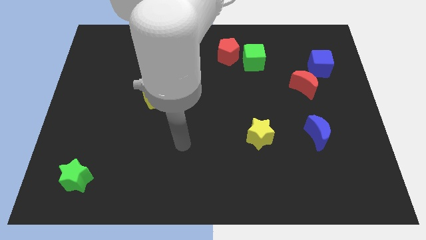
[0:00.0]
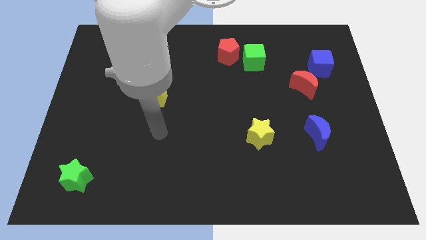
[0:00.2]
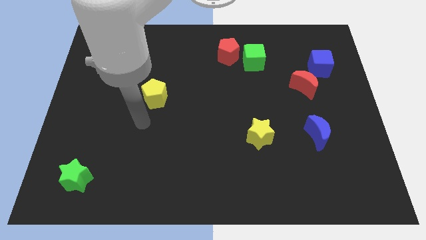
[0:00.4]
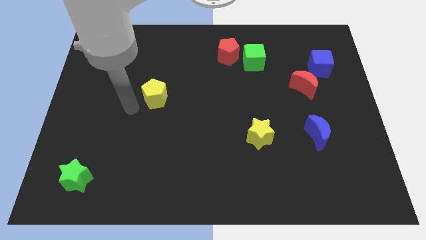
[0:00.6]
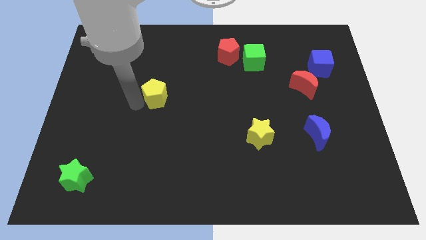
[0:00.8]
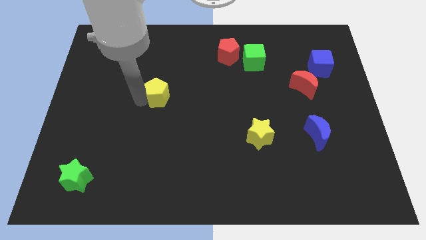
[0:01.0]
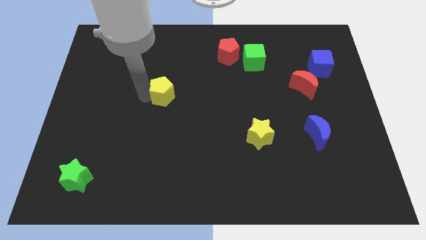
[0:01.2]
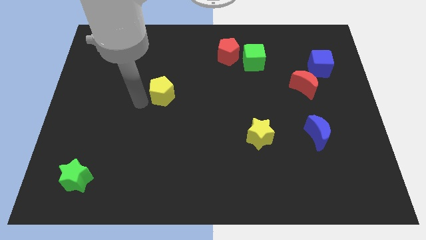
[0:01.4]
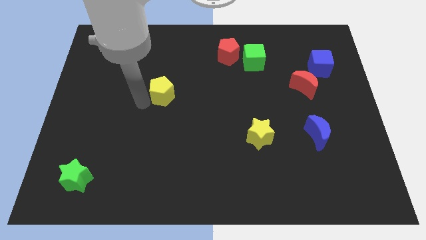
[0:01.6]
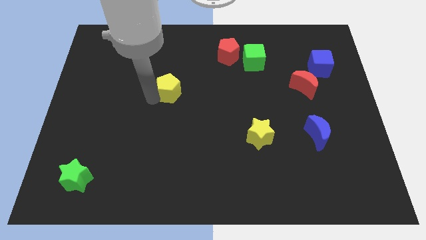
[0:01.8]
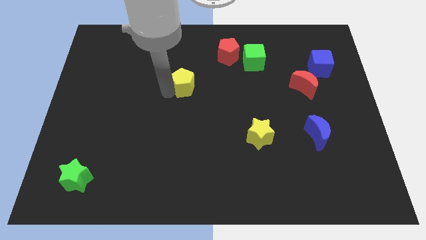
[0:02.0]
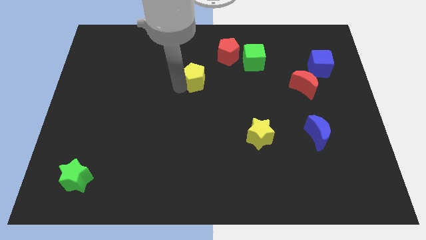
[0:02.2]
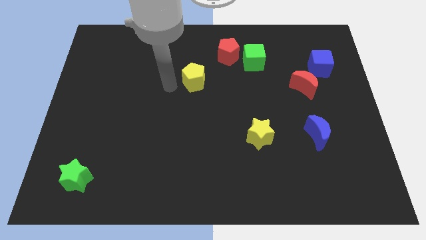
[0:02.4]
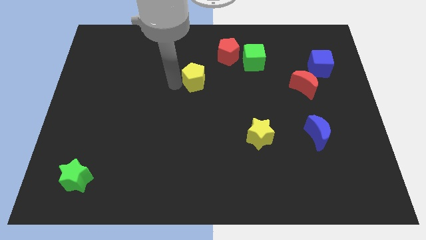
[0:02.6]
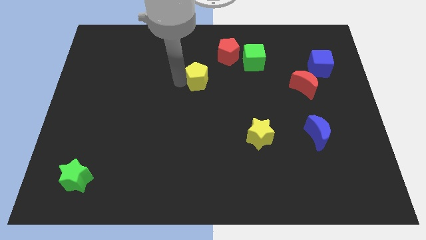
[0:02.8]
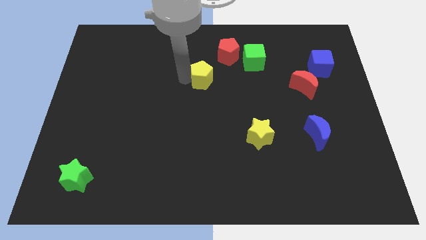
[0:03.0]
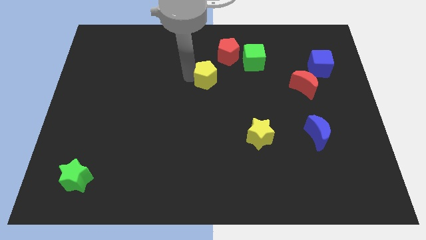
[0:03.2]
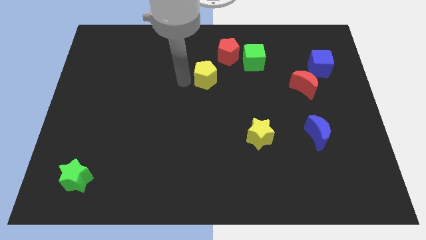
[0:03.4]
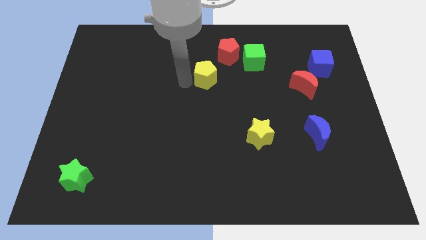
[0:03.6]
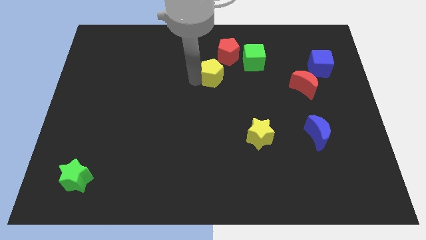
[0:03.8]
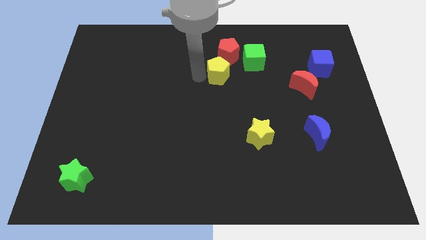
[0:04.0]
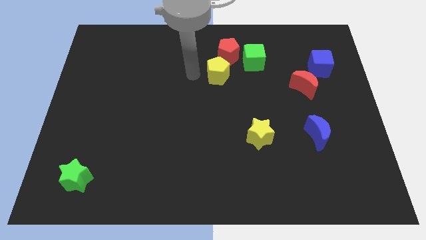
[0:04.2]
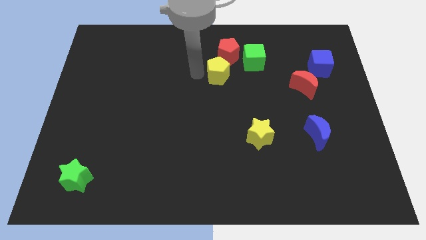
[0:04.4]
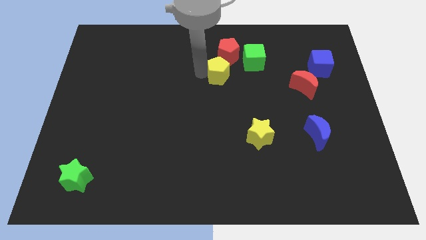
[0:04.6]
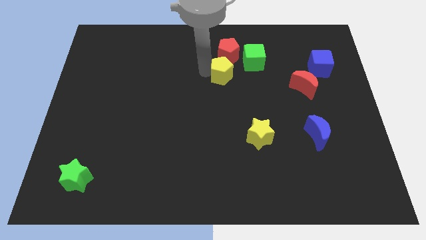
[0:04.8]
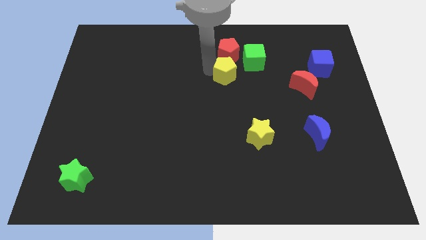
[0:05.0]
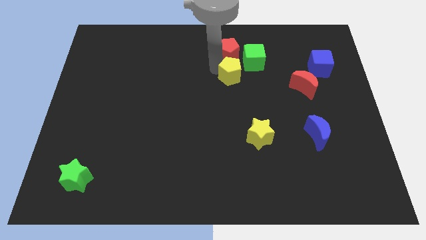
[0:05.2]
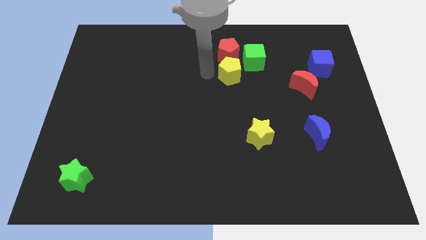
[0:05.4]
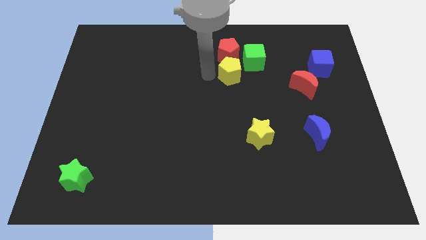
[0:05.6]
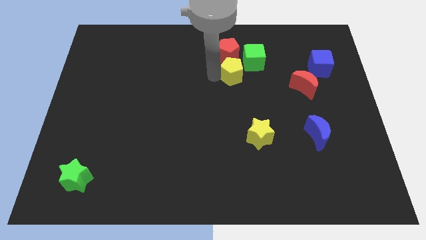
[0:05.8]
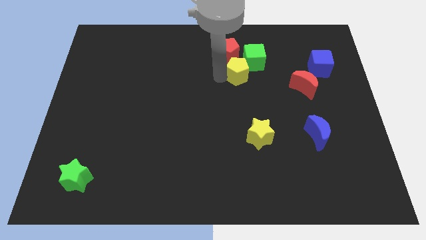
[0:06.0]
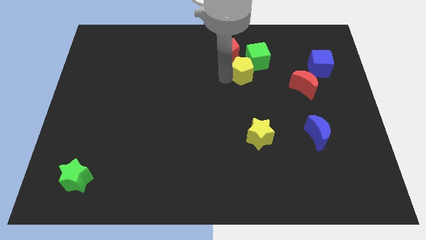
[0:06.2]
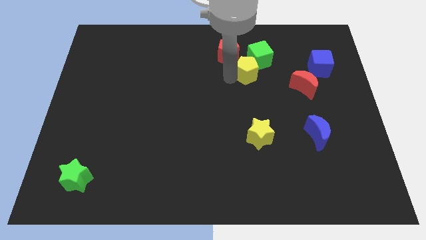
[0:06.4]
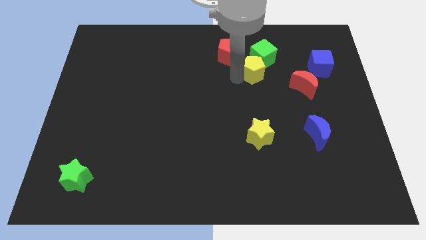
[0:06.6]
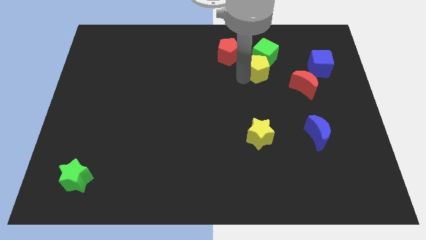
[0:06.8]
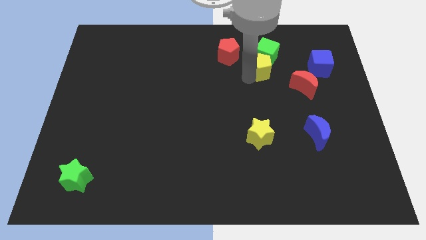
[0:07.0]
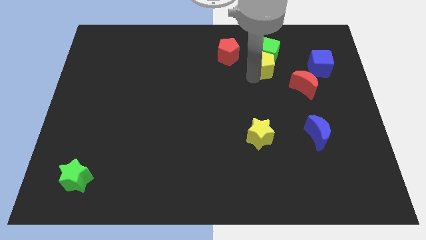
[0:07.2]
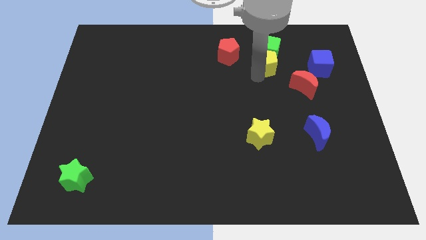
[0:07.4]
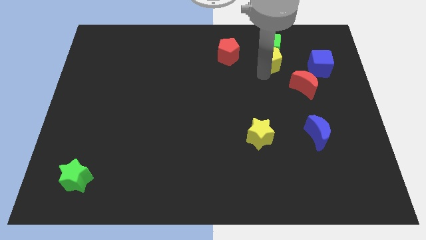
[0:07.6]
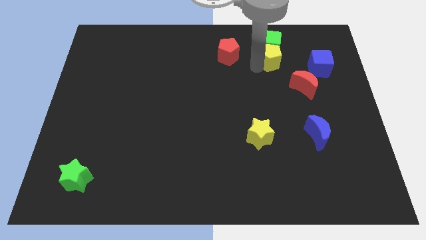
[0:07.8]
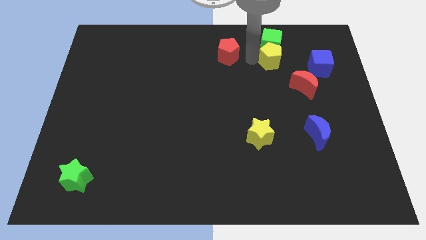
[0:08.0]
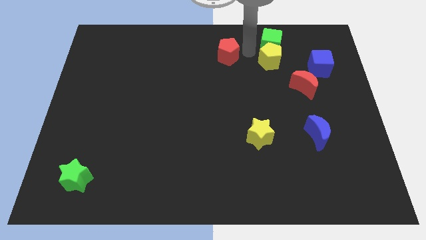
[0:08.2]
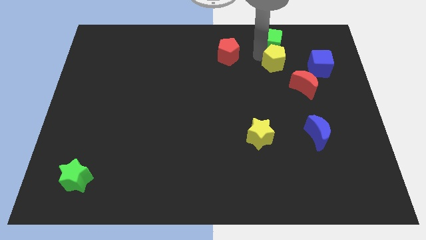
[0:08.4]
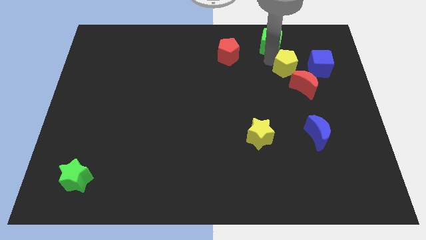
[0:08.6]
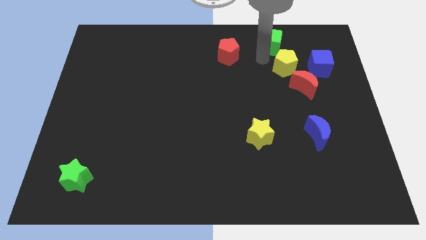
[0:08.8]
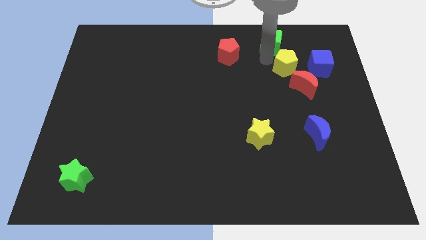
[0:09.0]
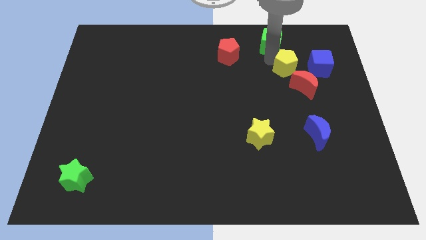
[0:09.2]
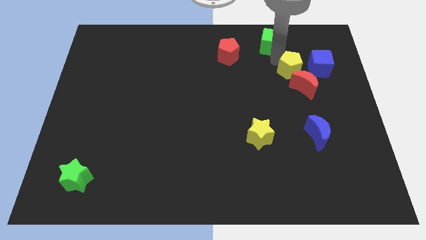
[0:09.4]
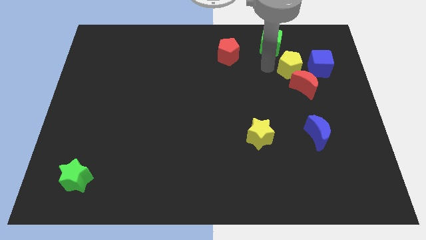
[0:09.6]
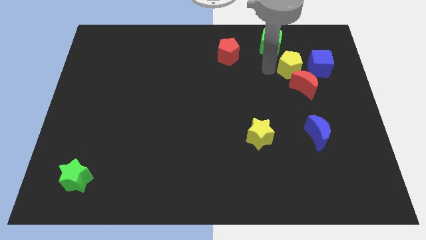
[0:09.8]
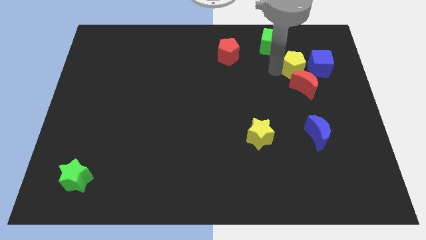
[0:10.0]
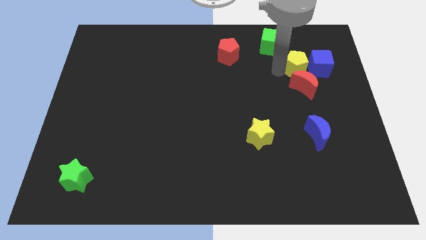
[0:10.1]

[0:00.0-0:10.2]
push the yellow pentagon to the blue cube

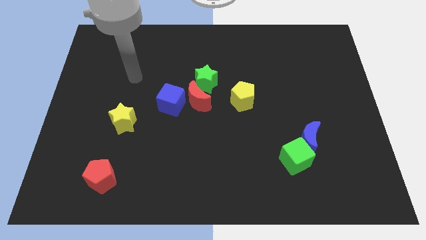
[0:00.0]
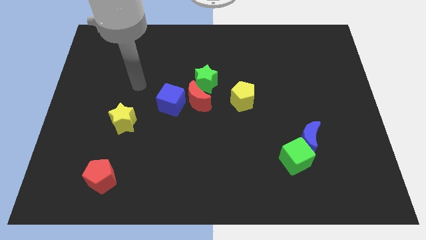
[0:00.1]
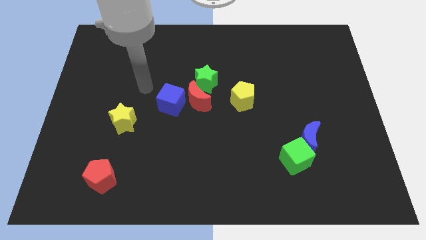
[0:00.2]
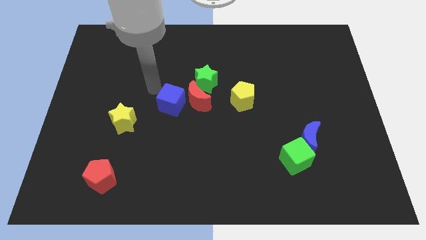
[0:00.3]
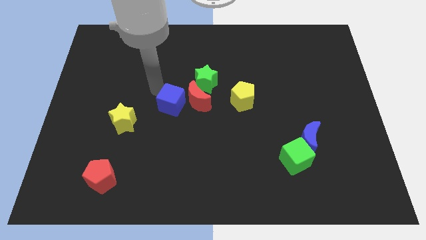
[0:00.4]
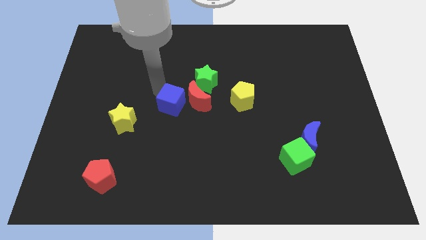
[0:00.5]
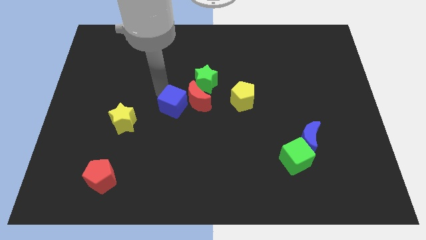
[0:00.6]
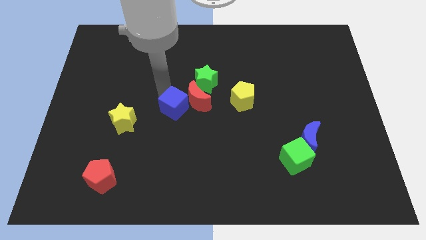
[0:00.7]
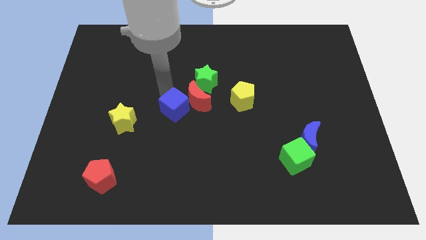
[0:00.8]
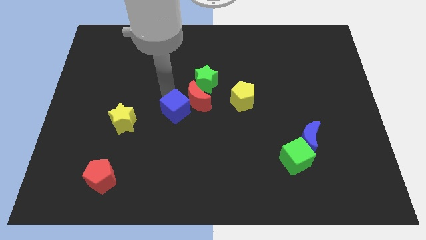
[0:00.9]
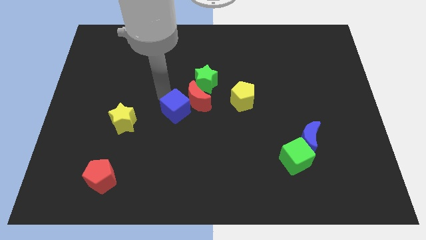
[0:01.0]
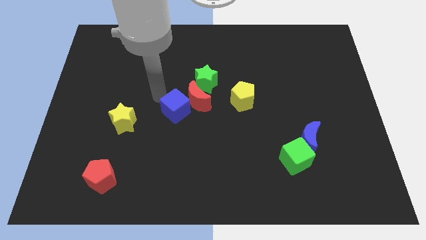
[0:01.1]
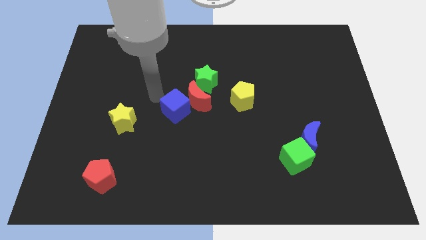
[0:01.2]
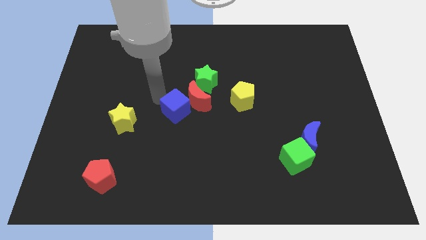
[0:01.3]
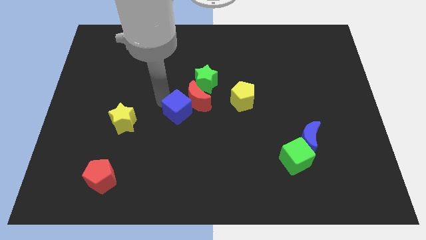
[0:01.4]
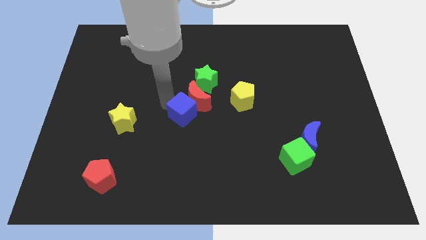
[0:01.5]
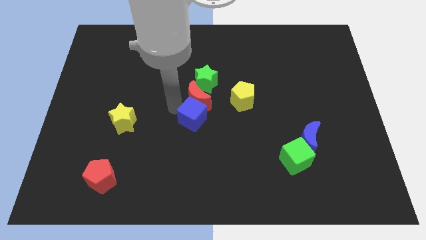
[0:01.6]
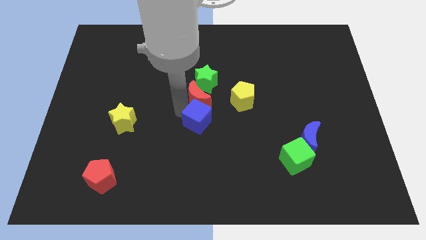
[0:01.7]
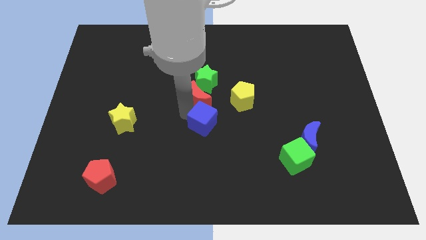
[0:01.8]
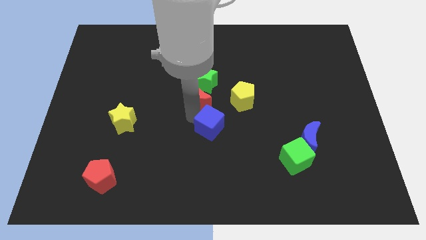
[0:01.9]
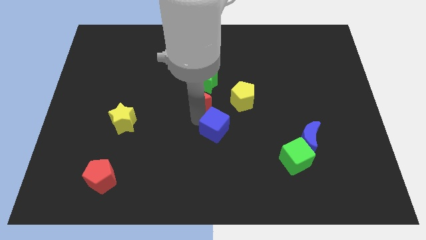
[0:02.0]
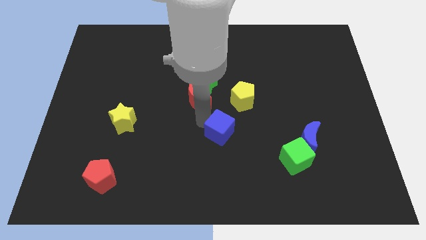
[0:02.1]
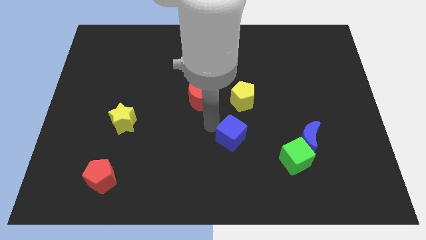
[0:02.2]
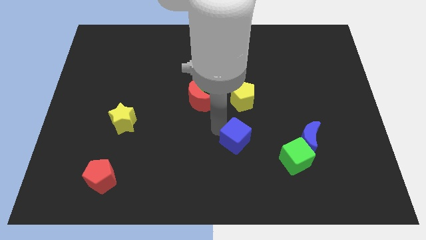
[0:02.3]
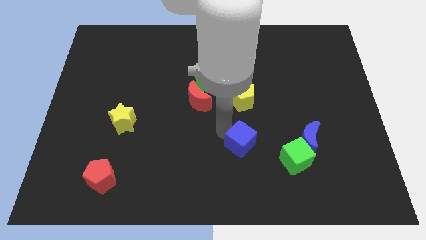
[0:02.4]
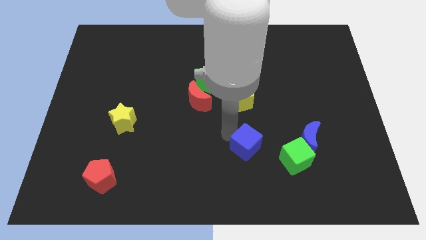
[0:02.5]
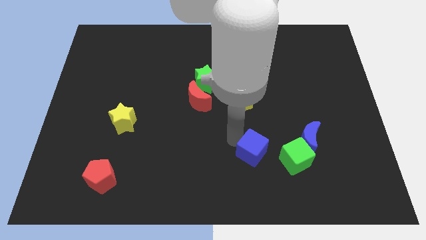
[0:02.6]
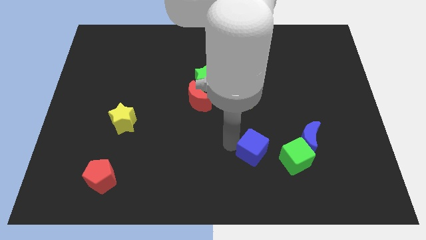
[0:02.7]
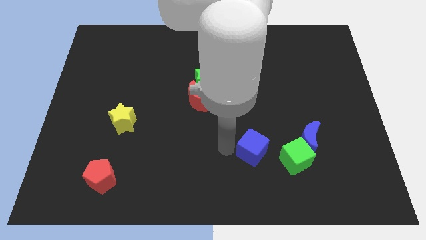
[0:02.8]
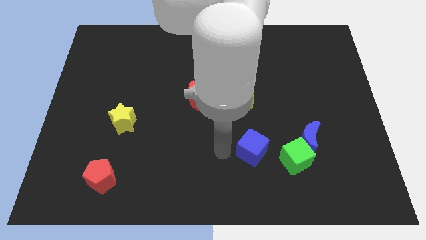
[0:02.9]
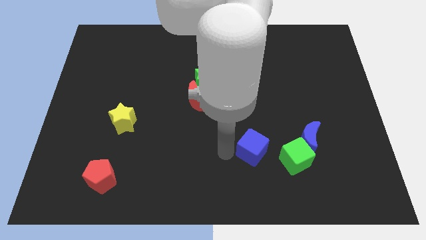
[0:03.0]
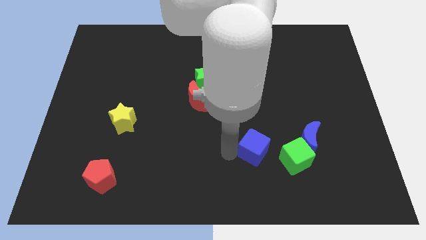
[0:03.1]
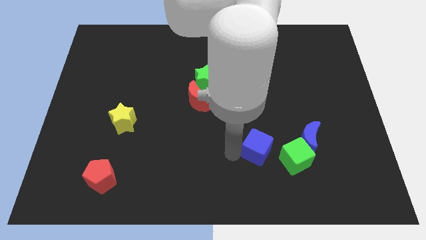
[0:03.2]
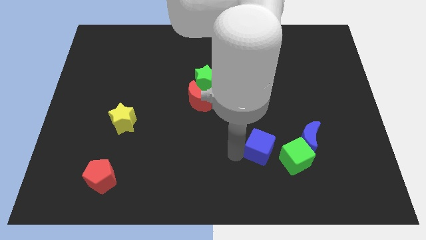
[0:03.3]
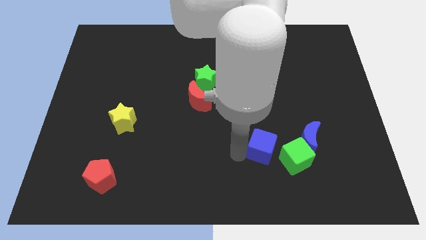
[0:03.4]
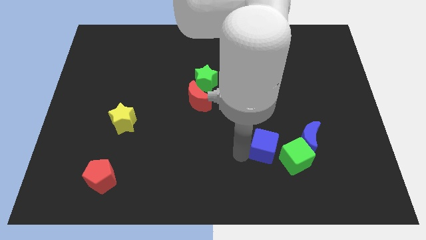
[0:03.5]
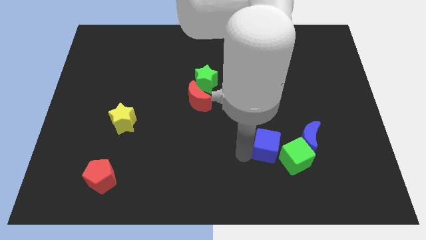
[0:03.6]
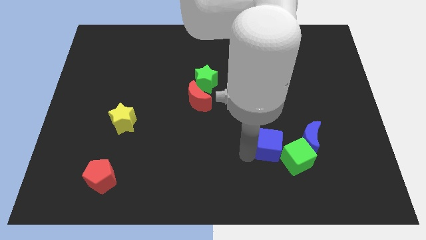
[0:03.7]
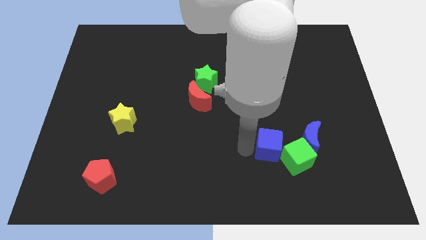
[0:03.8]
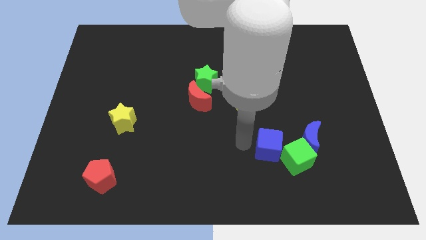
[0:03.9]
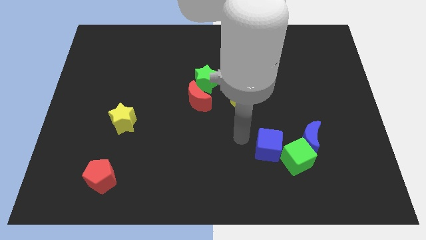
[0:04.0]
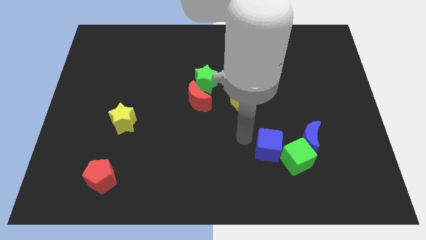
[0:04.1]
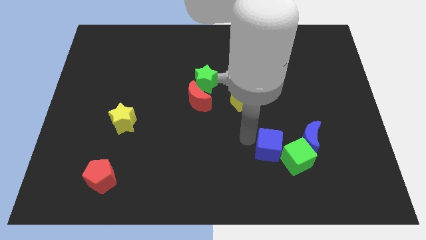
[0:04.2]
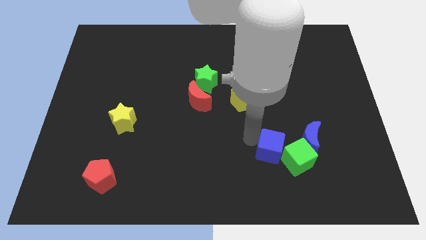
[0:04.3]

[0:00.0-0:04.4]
put the blue cube next to the green cube
